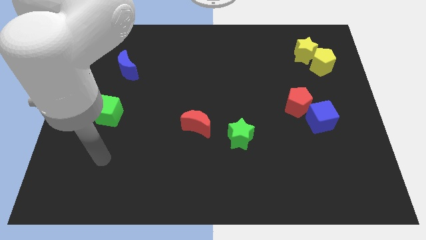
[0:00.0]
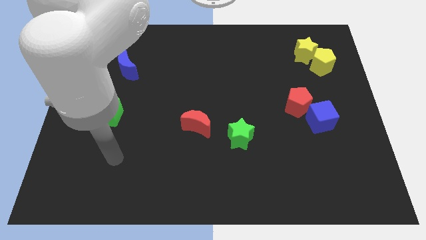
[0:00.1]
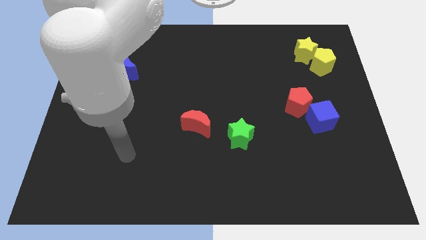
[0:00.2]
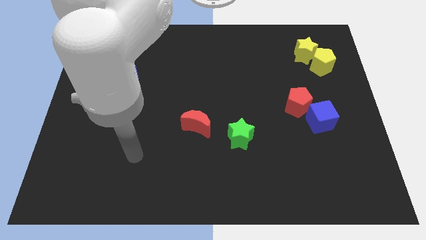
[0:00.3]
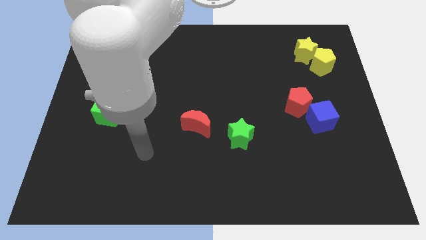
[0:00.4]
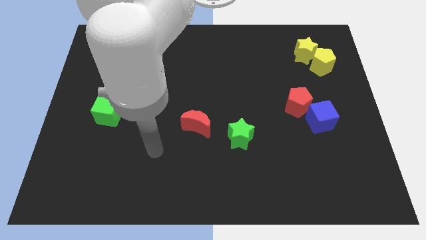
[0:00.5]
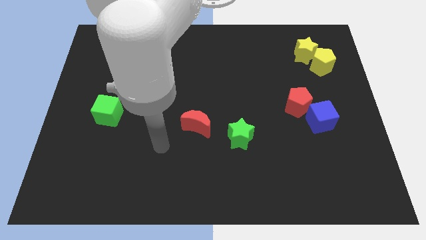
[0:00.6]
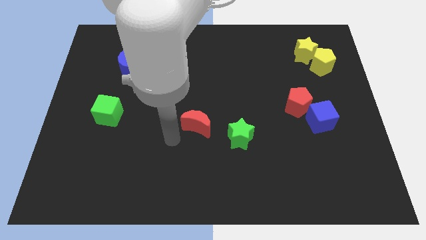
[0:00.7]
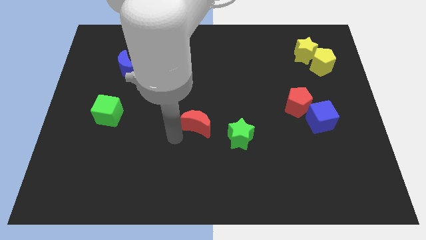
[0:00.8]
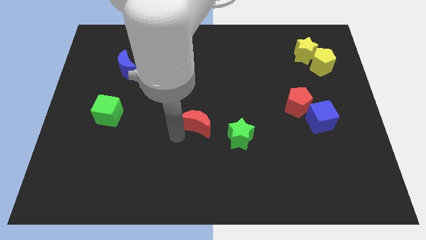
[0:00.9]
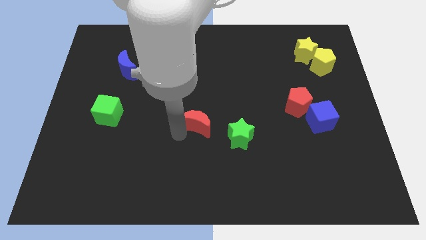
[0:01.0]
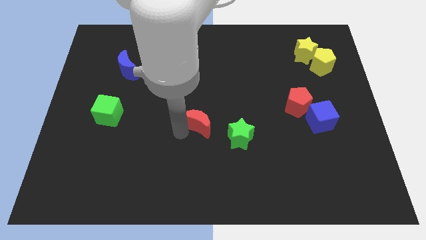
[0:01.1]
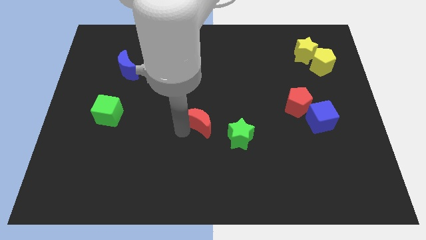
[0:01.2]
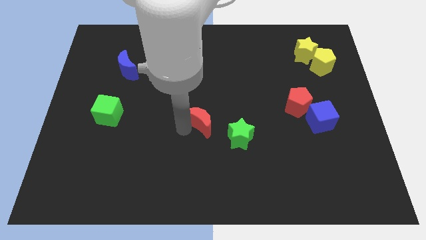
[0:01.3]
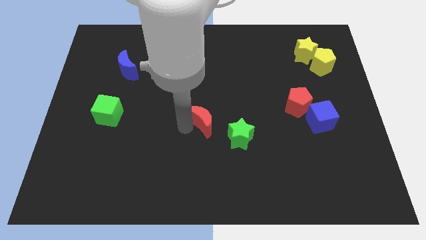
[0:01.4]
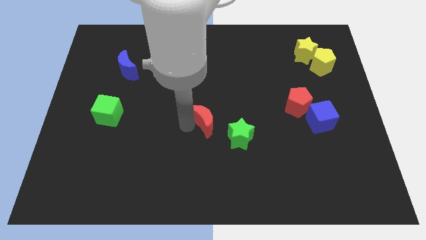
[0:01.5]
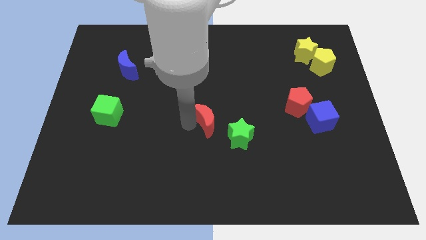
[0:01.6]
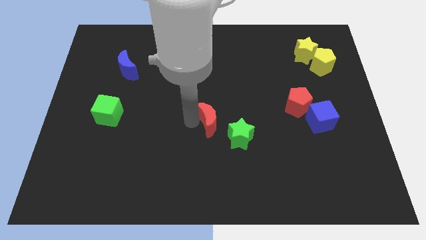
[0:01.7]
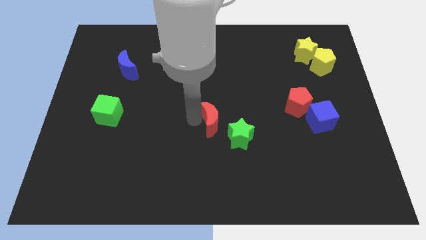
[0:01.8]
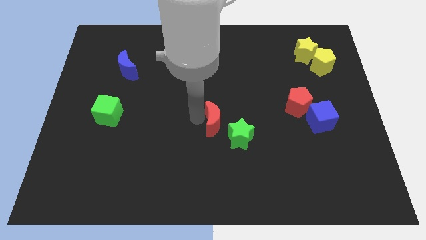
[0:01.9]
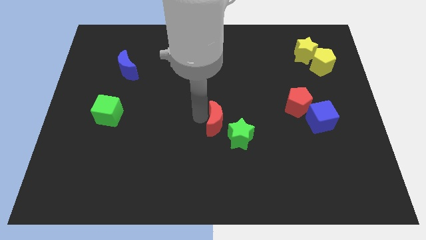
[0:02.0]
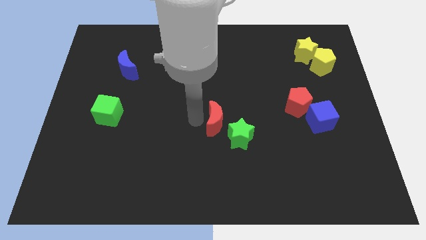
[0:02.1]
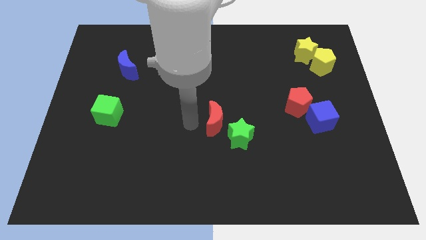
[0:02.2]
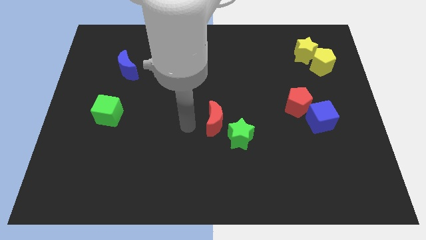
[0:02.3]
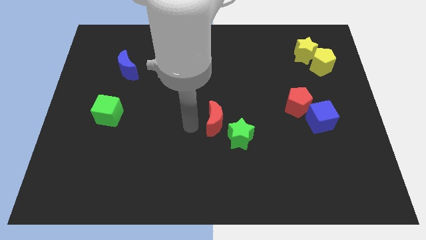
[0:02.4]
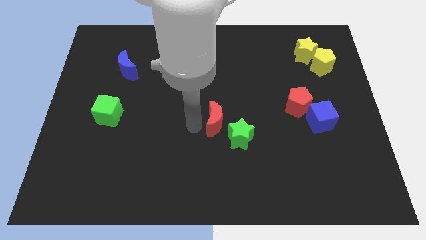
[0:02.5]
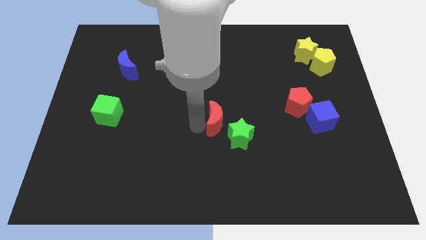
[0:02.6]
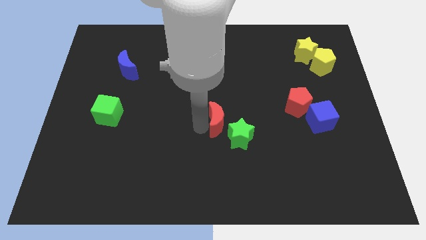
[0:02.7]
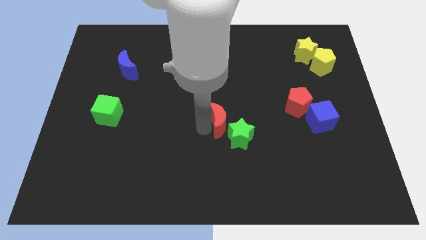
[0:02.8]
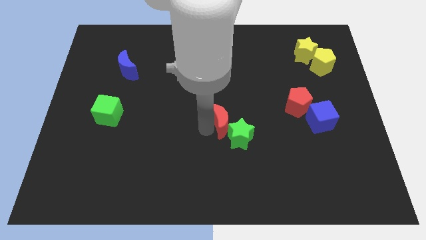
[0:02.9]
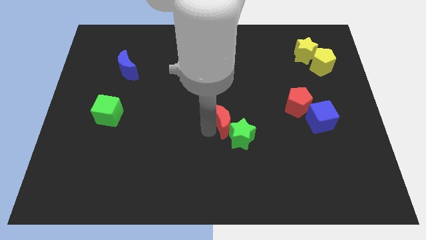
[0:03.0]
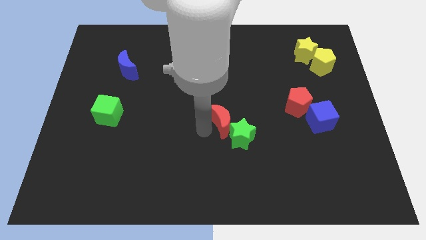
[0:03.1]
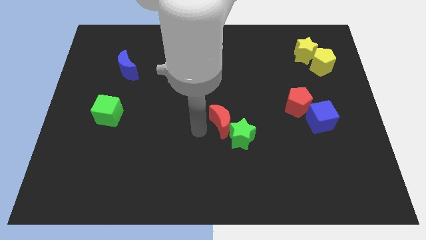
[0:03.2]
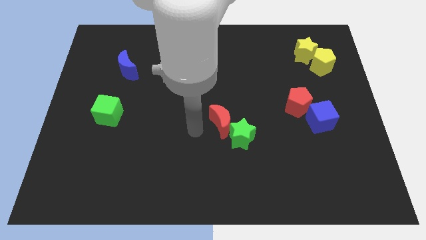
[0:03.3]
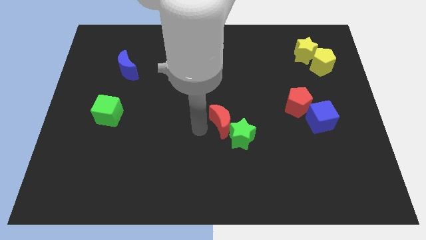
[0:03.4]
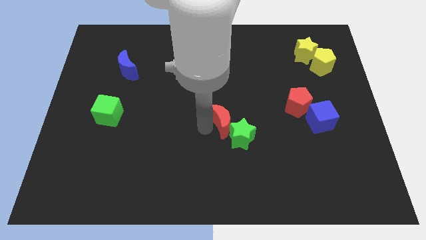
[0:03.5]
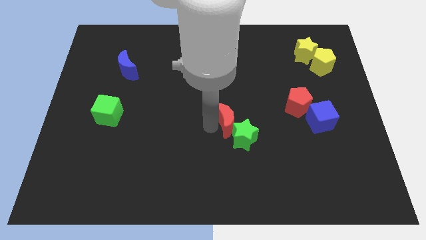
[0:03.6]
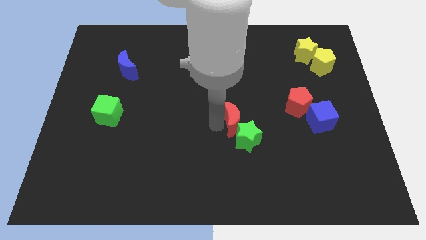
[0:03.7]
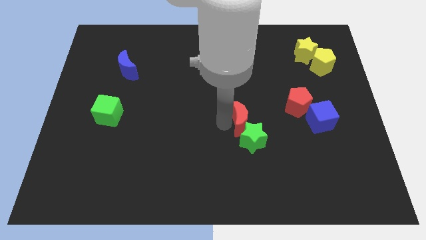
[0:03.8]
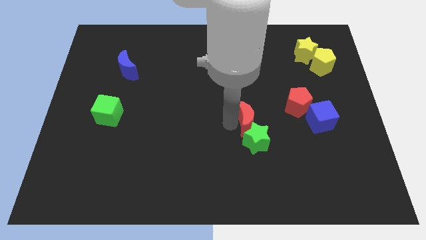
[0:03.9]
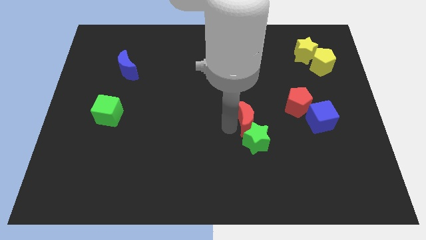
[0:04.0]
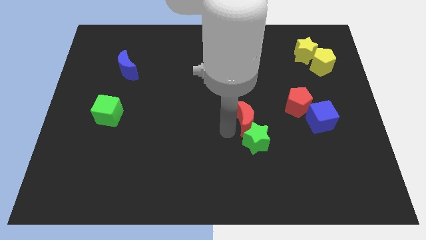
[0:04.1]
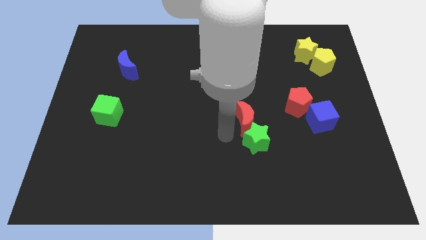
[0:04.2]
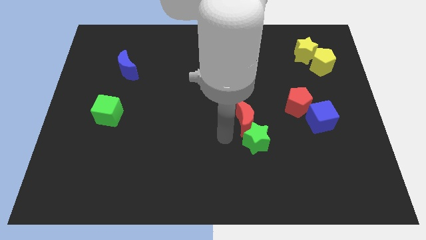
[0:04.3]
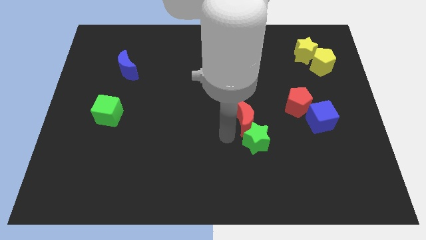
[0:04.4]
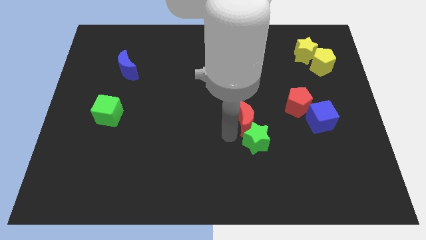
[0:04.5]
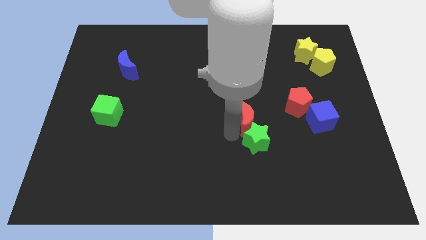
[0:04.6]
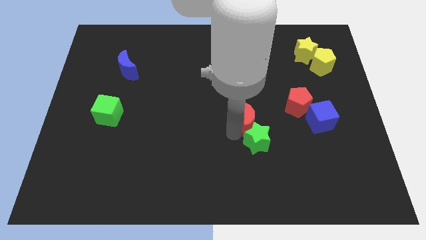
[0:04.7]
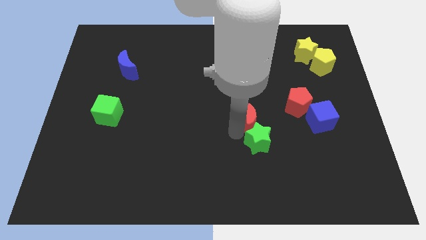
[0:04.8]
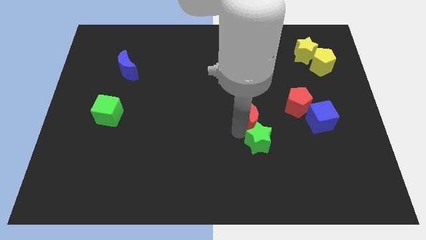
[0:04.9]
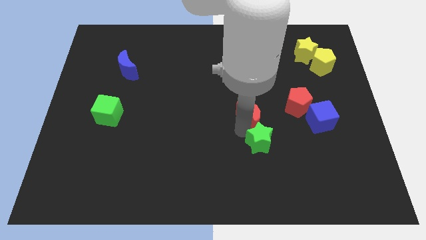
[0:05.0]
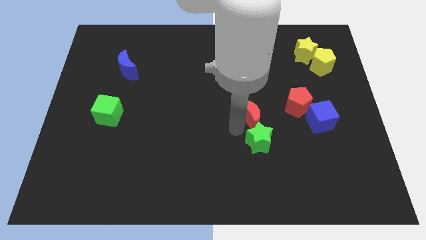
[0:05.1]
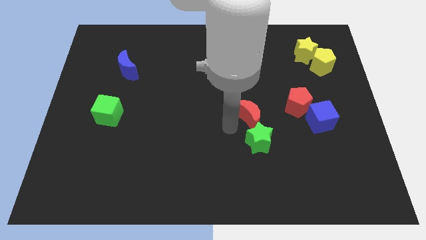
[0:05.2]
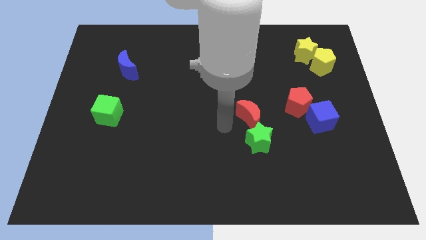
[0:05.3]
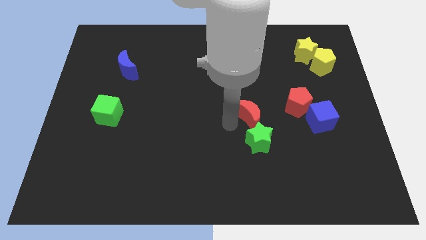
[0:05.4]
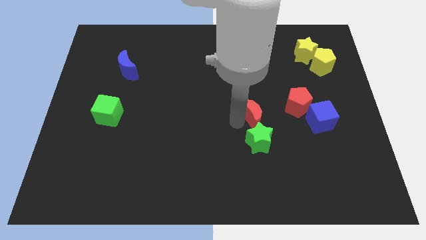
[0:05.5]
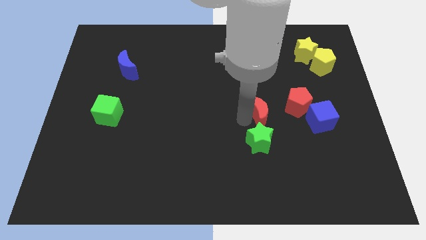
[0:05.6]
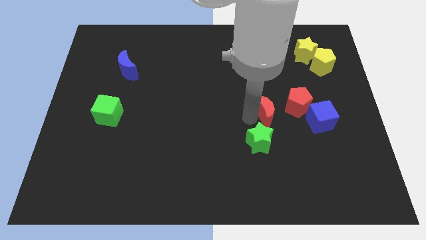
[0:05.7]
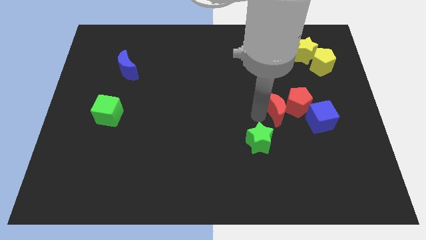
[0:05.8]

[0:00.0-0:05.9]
push the red moon to the red pentagon

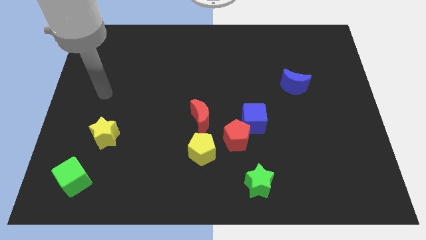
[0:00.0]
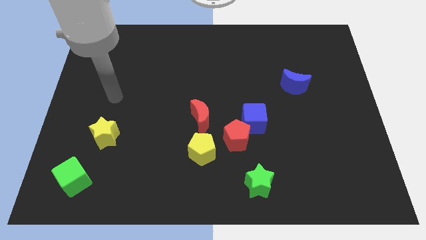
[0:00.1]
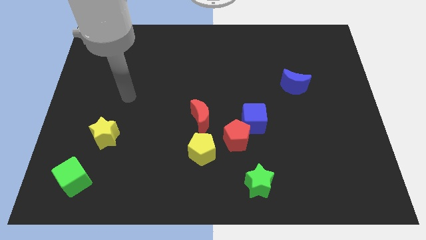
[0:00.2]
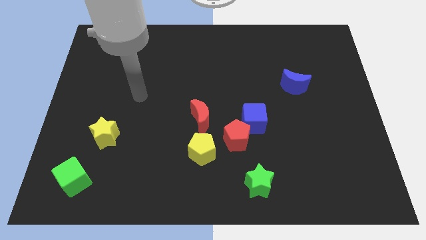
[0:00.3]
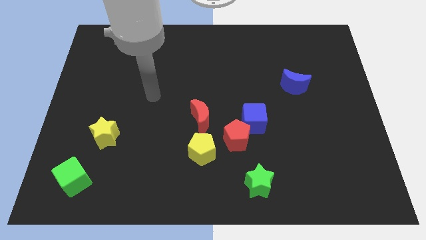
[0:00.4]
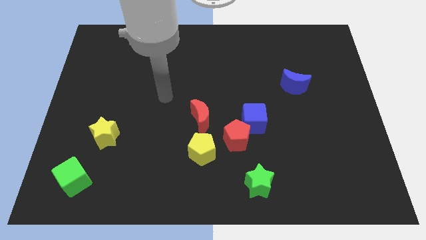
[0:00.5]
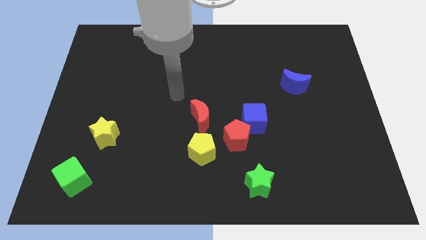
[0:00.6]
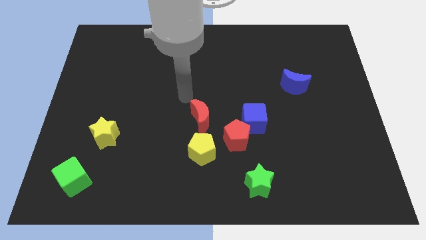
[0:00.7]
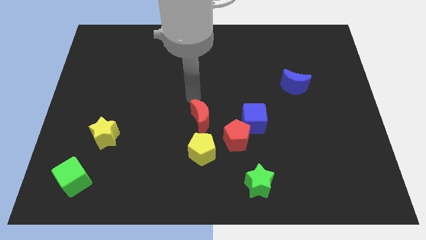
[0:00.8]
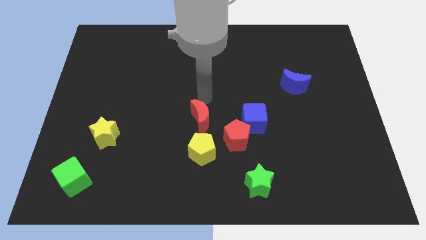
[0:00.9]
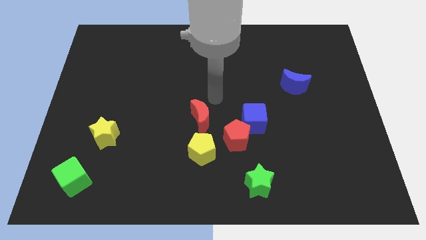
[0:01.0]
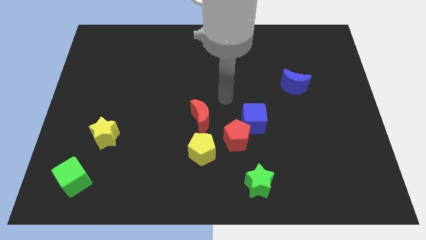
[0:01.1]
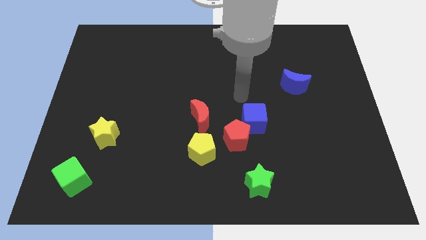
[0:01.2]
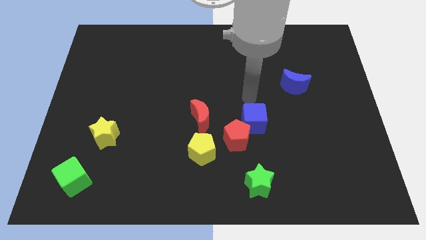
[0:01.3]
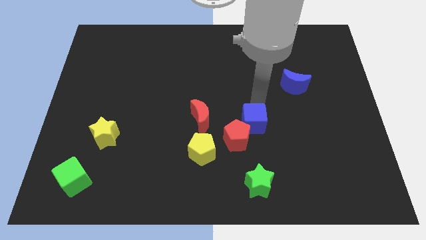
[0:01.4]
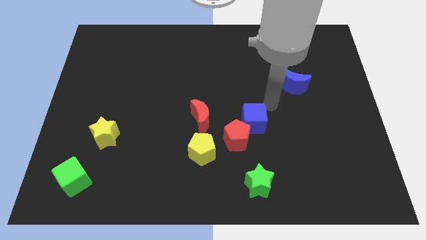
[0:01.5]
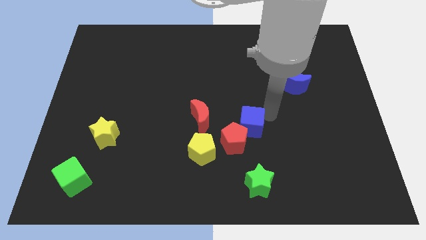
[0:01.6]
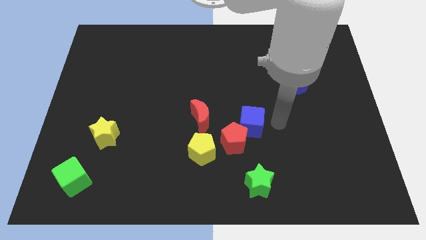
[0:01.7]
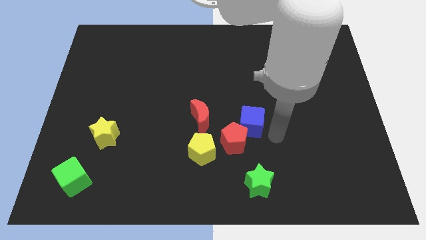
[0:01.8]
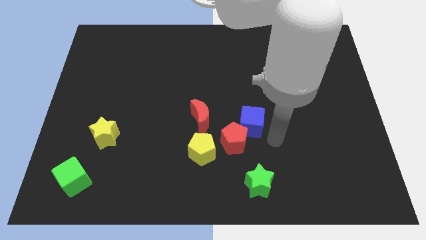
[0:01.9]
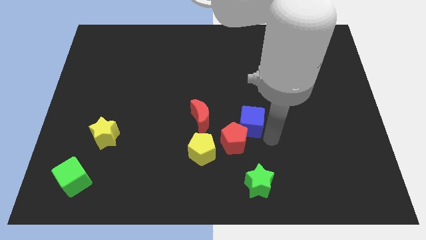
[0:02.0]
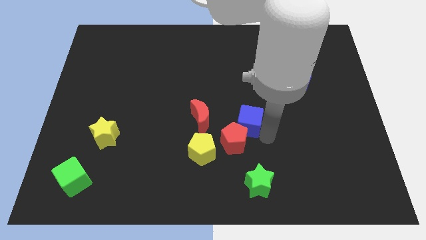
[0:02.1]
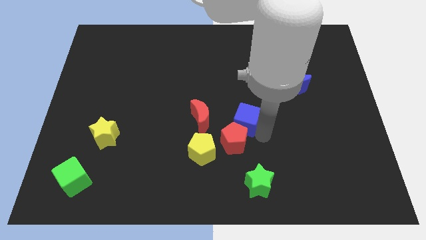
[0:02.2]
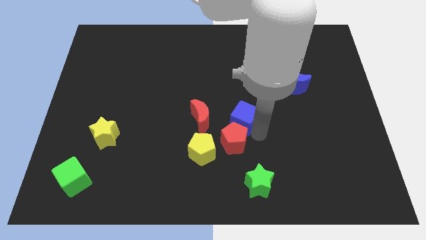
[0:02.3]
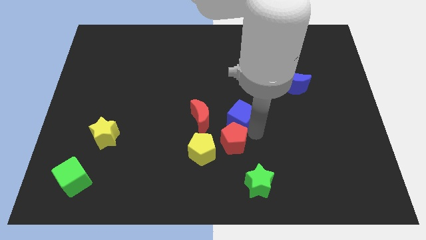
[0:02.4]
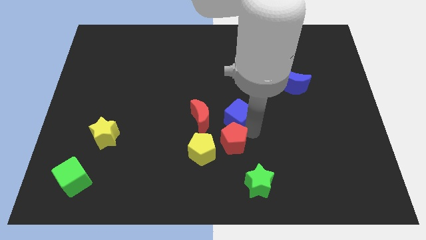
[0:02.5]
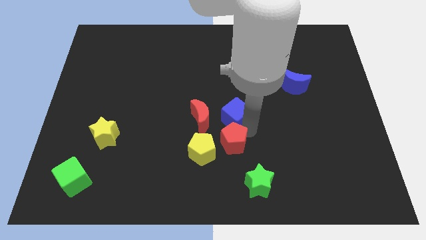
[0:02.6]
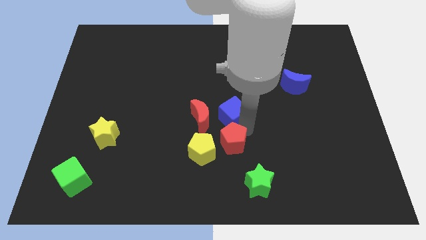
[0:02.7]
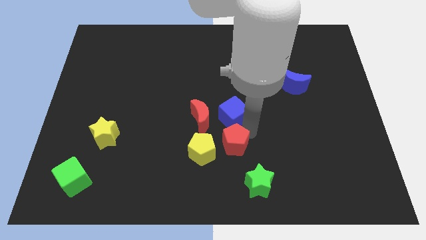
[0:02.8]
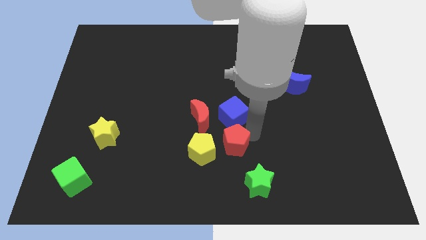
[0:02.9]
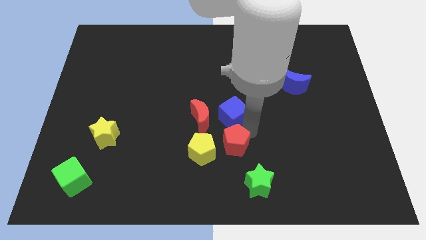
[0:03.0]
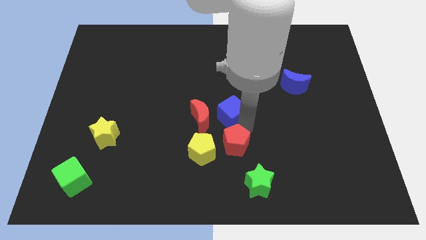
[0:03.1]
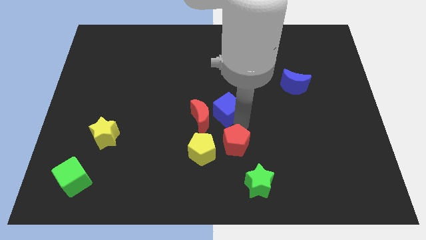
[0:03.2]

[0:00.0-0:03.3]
slide the blue cube next to the red moon
